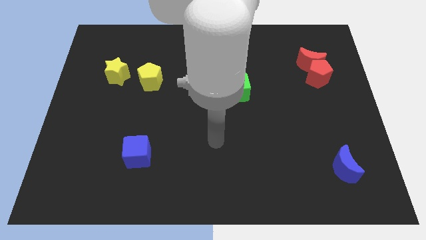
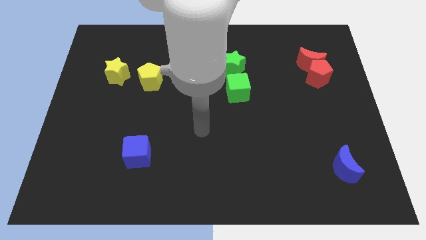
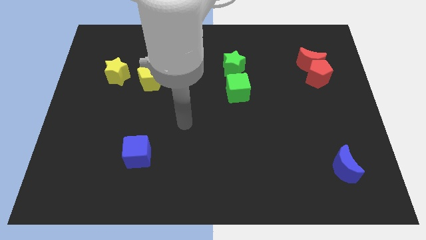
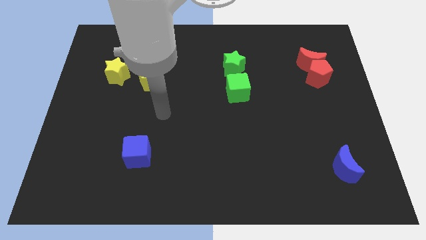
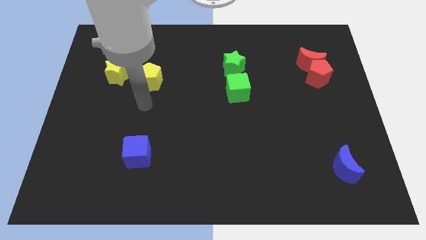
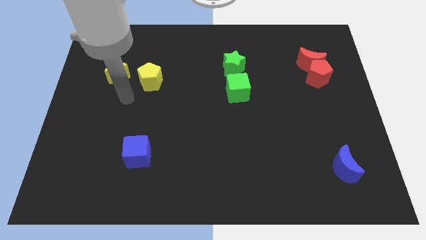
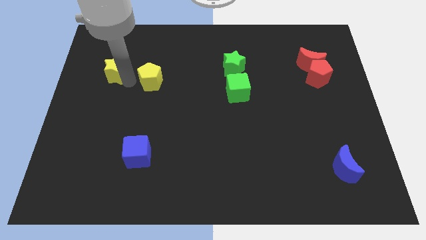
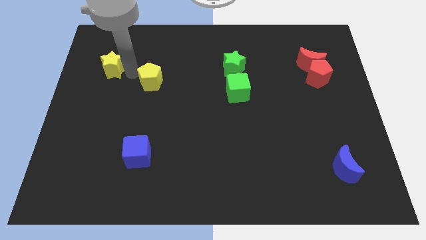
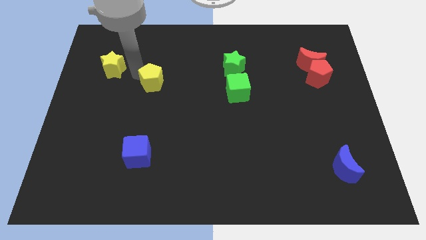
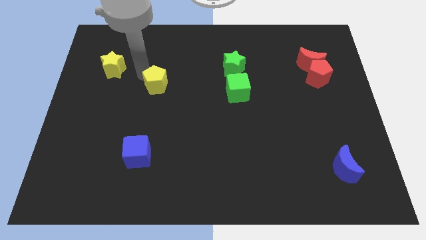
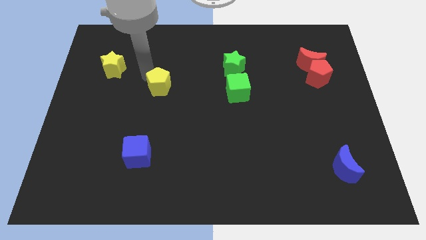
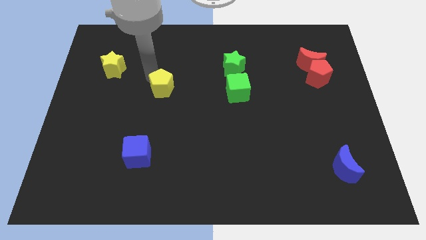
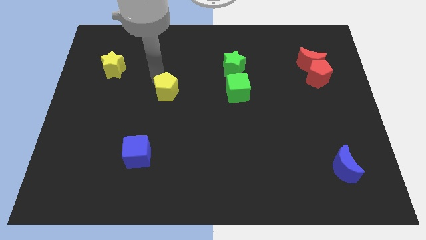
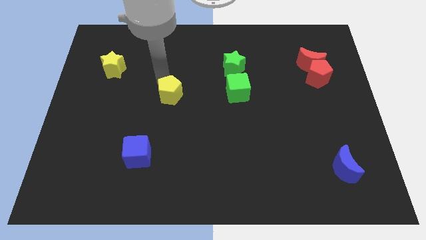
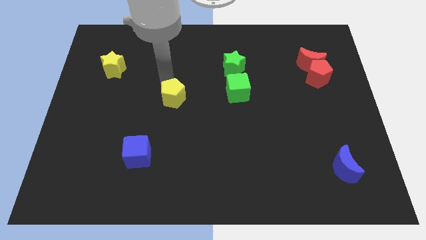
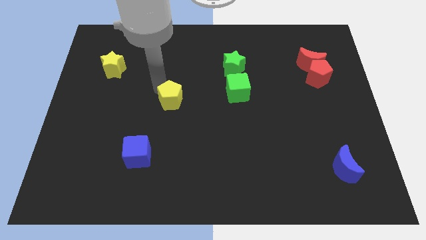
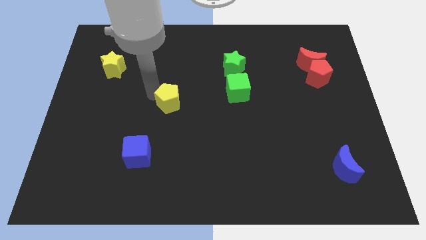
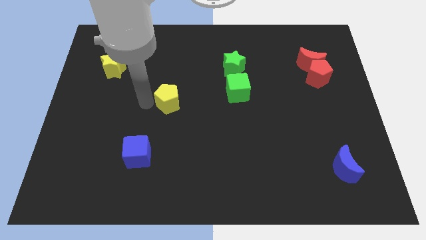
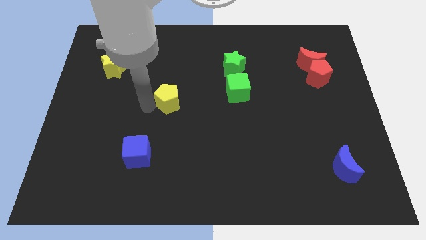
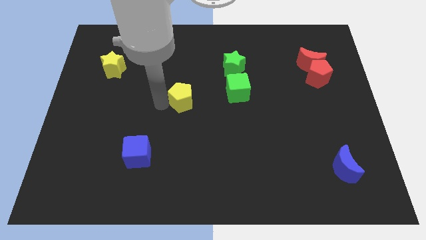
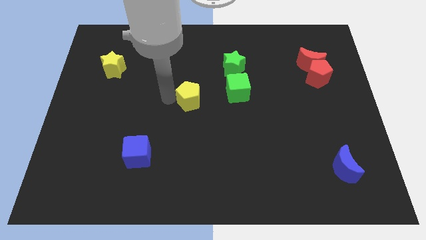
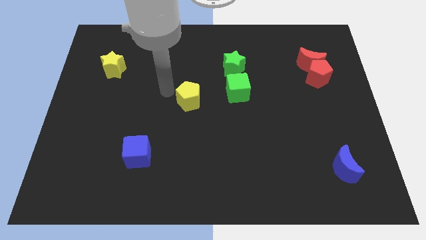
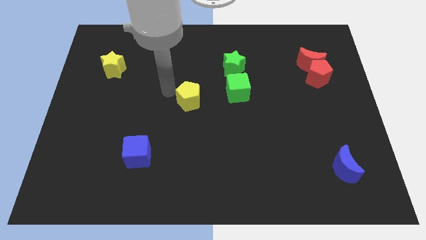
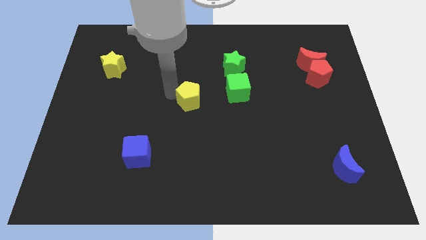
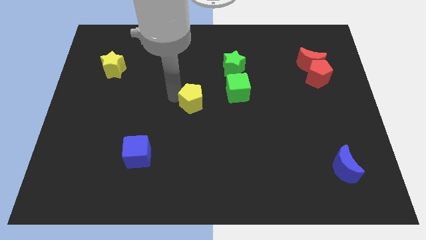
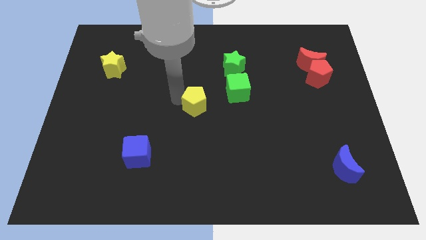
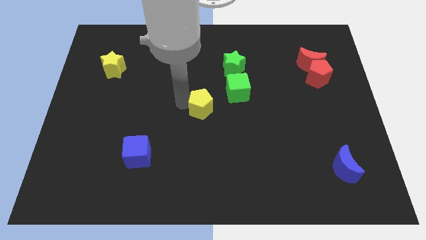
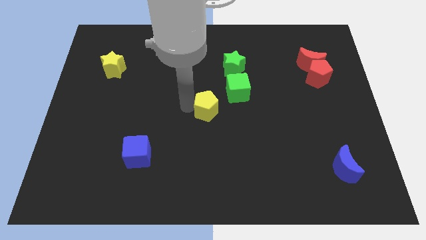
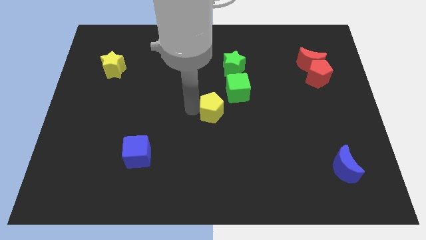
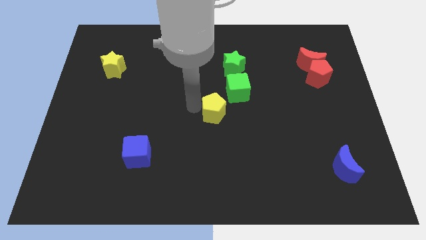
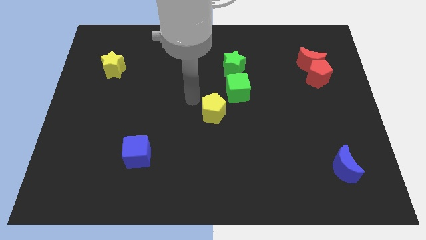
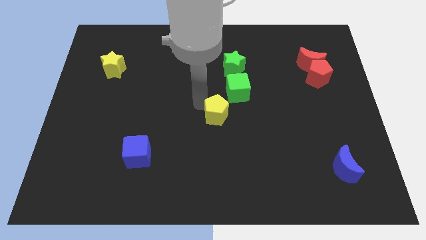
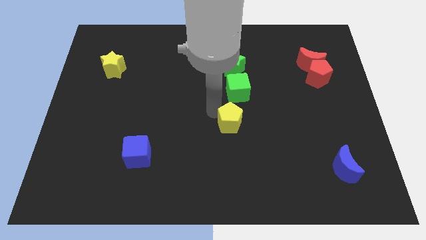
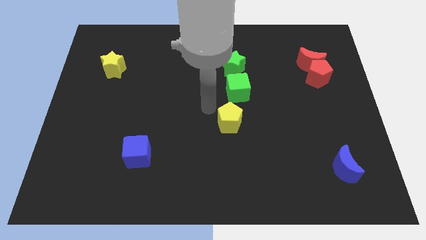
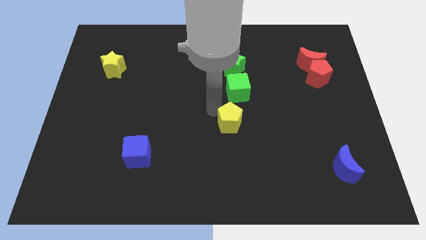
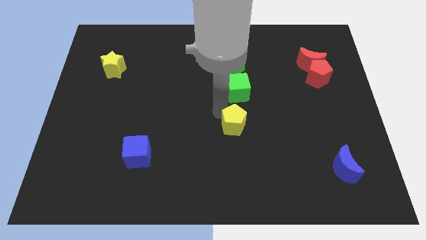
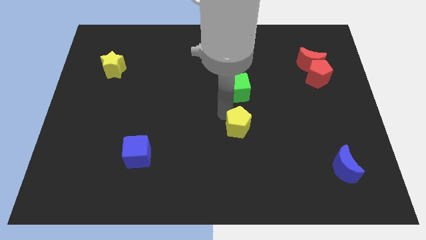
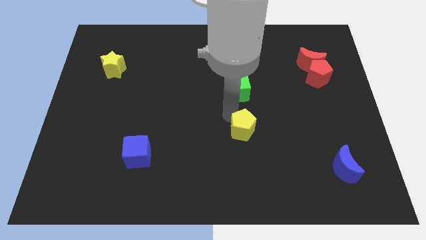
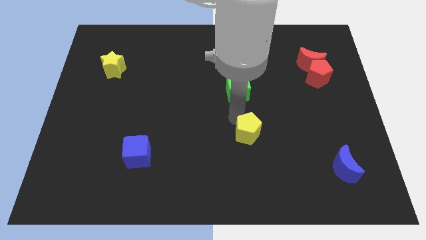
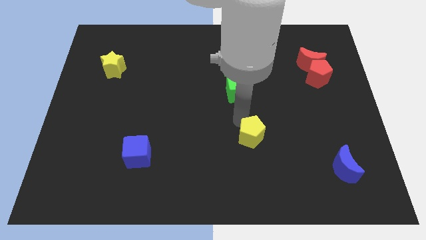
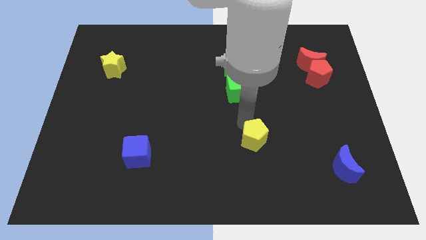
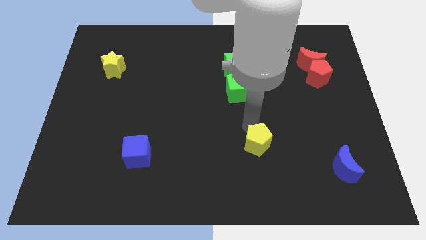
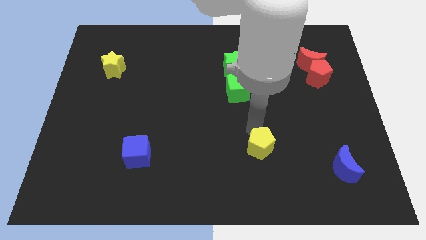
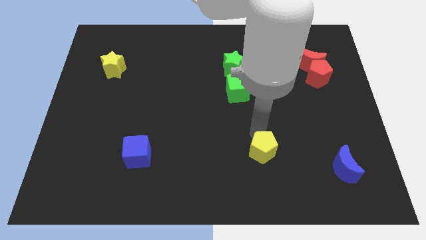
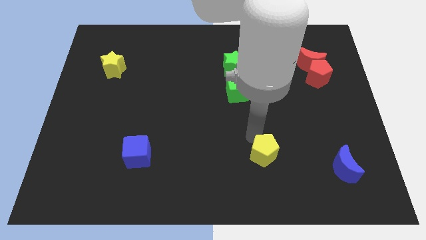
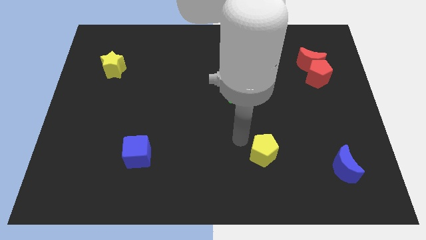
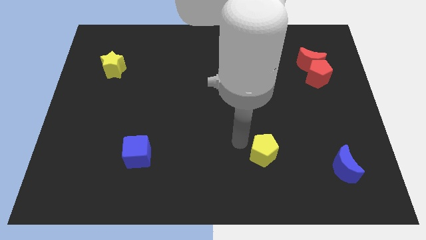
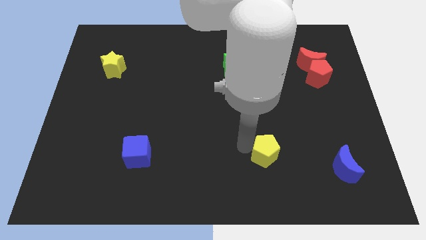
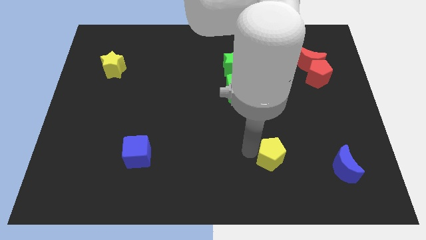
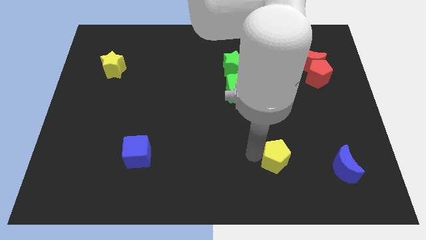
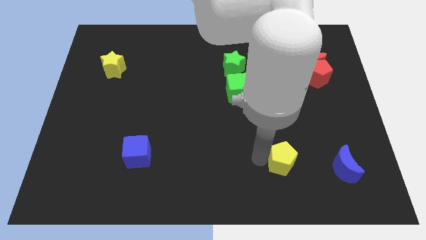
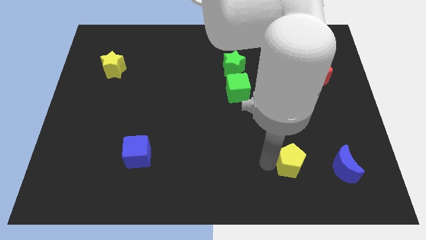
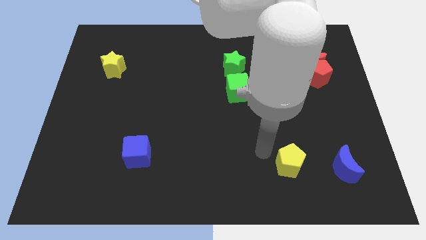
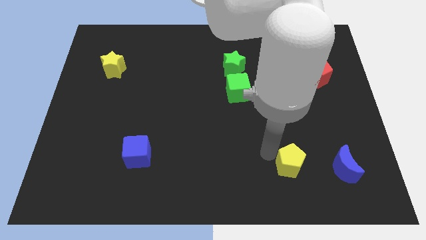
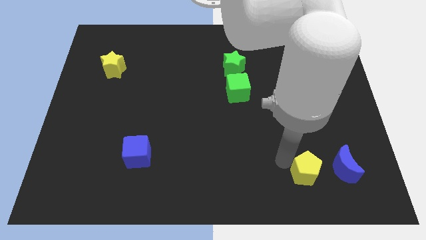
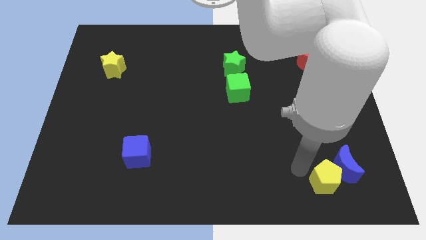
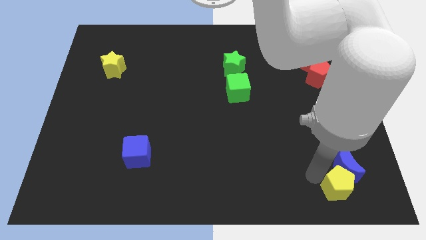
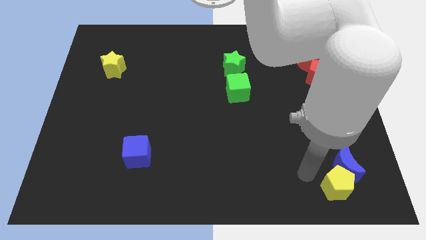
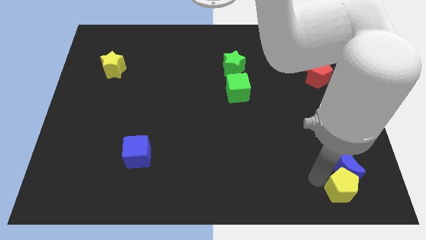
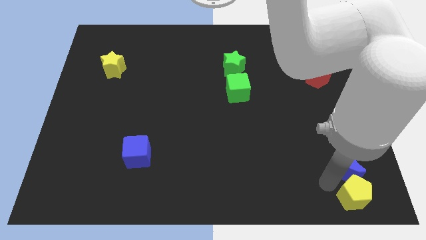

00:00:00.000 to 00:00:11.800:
slide the yellow pentagon to the bottom right
